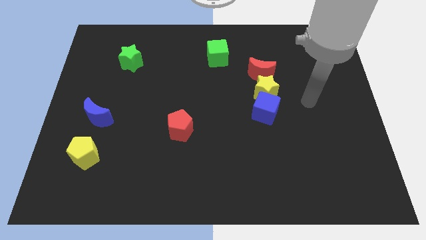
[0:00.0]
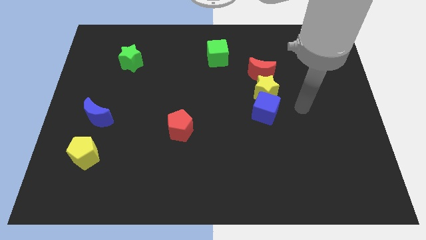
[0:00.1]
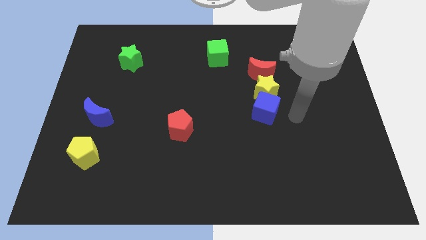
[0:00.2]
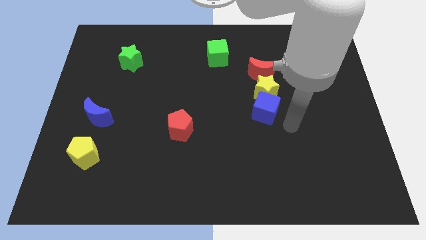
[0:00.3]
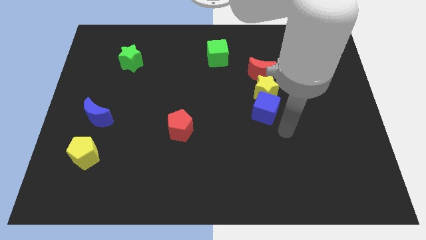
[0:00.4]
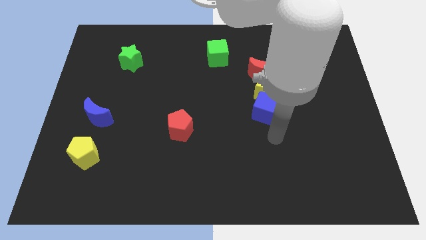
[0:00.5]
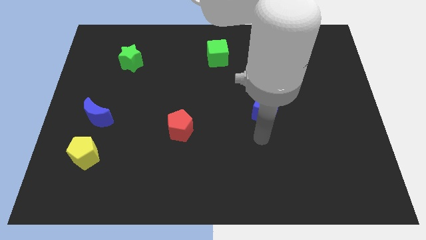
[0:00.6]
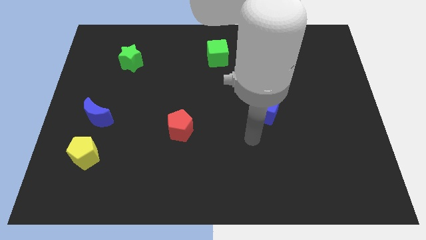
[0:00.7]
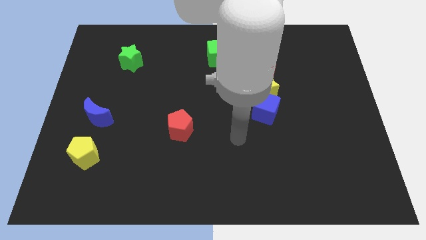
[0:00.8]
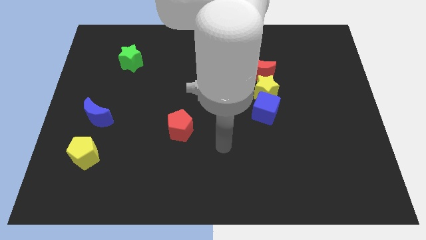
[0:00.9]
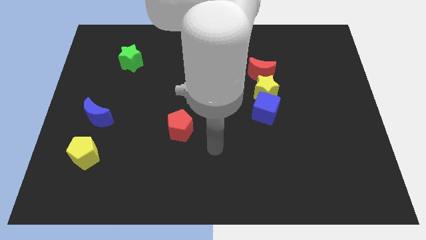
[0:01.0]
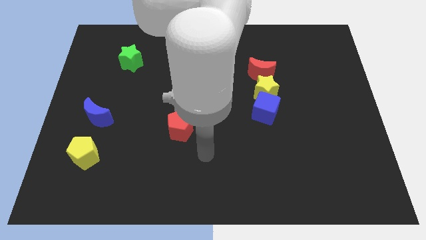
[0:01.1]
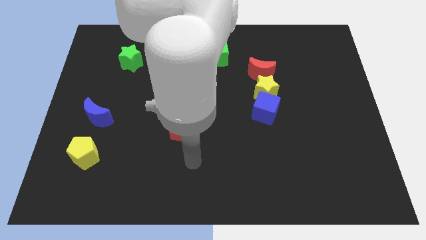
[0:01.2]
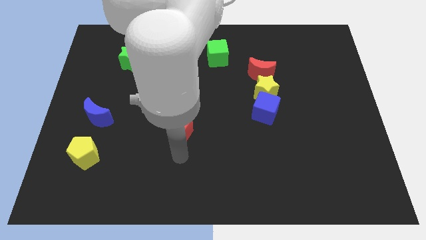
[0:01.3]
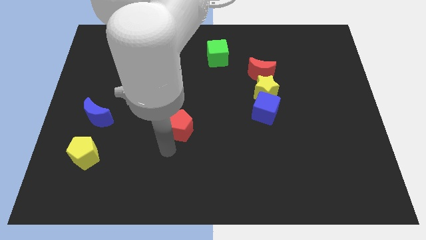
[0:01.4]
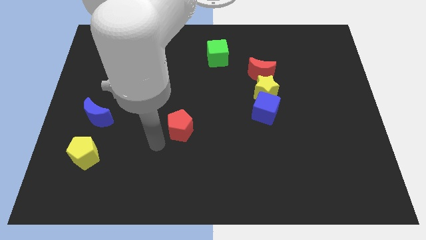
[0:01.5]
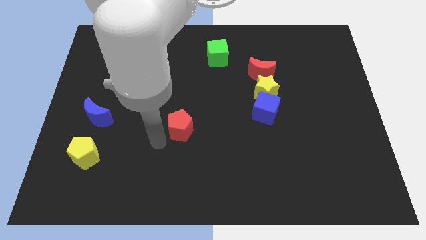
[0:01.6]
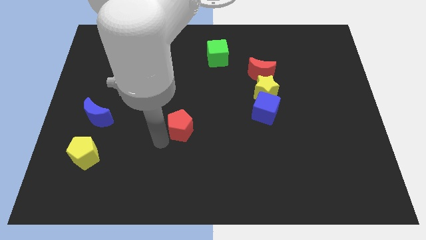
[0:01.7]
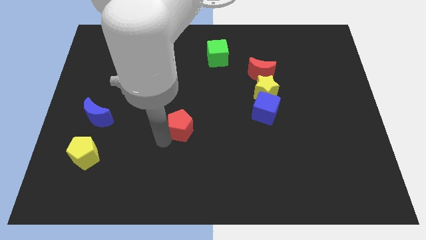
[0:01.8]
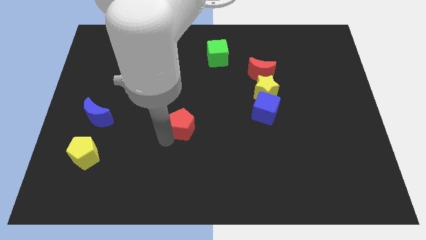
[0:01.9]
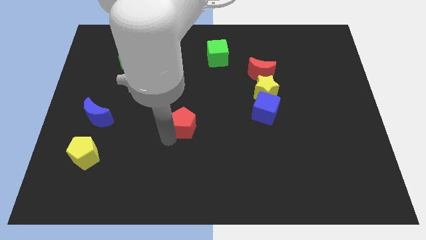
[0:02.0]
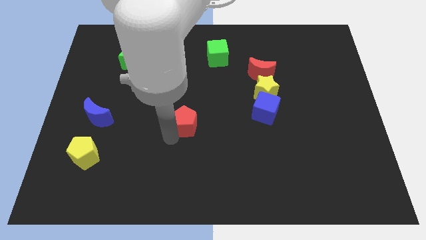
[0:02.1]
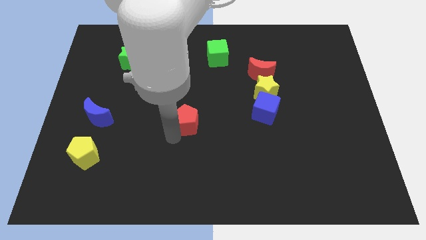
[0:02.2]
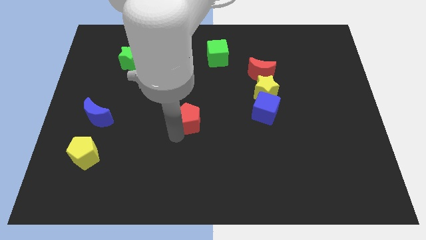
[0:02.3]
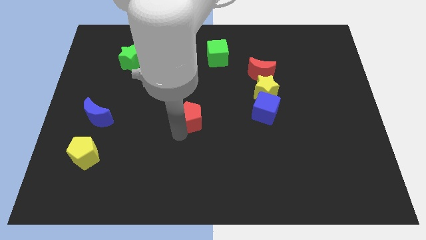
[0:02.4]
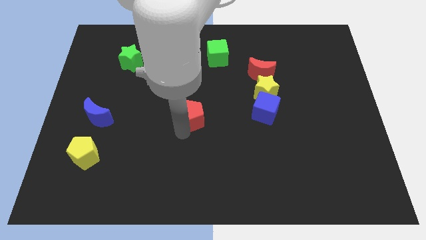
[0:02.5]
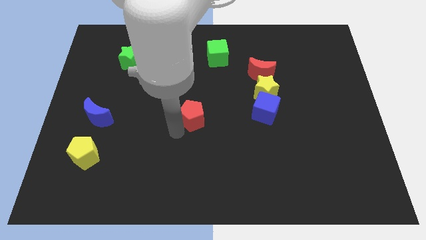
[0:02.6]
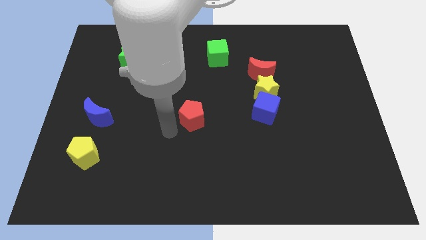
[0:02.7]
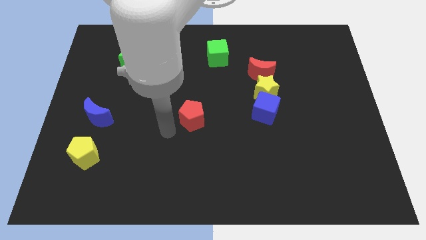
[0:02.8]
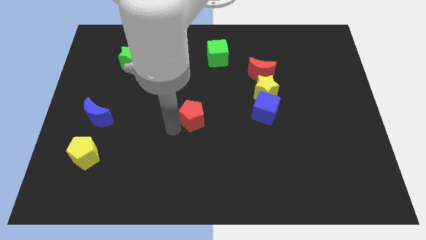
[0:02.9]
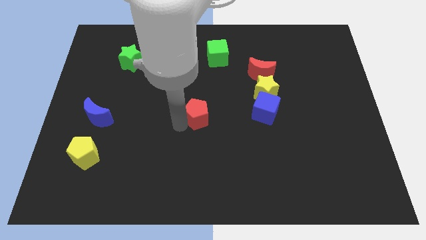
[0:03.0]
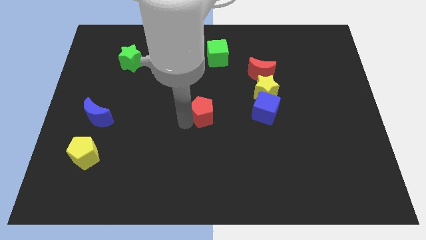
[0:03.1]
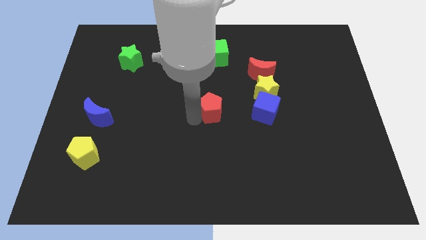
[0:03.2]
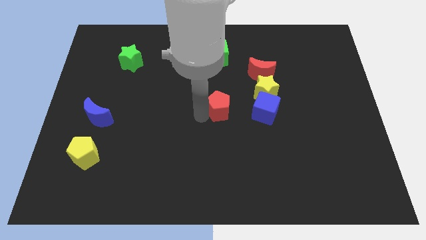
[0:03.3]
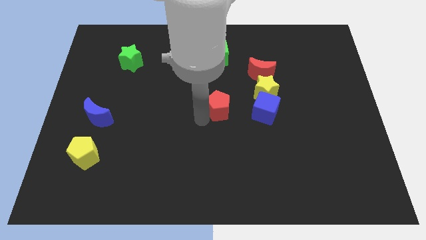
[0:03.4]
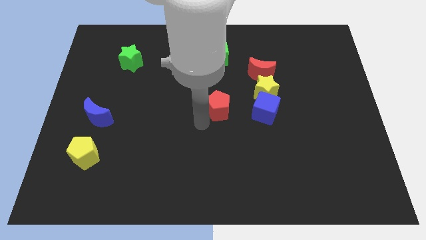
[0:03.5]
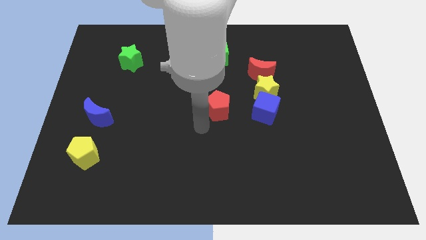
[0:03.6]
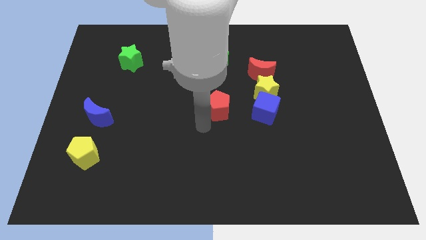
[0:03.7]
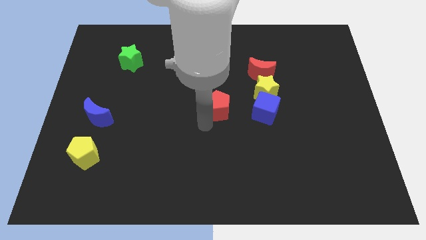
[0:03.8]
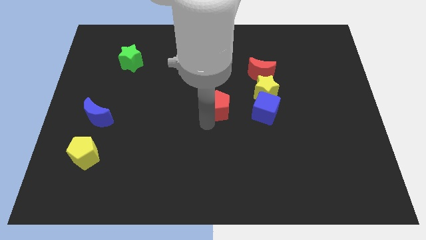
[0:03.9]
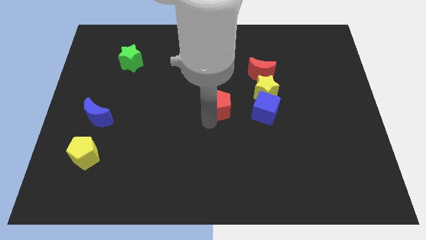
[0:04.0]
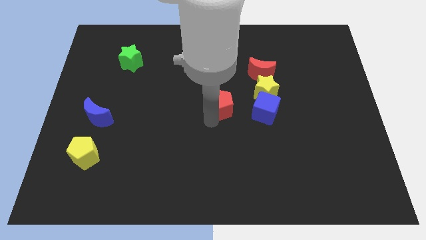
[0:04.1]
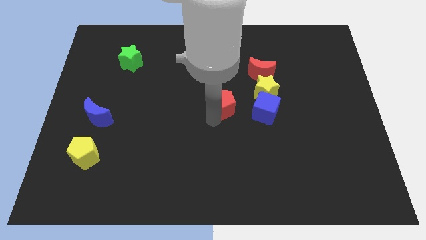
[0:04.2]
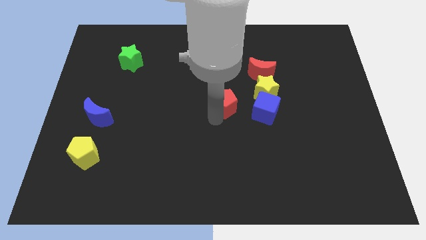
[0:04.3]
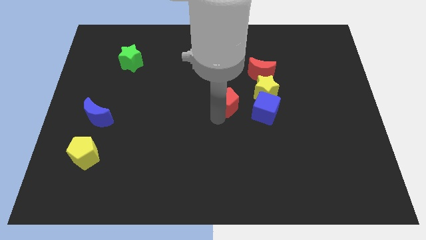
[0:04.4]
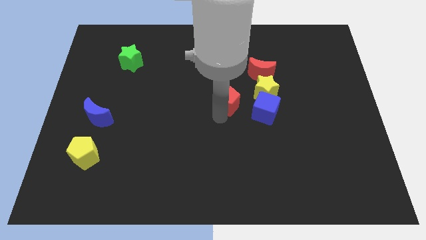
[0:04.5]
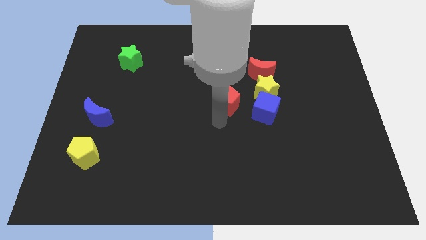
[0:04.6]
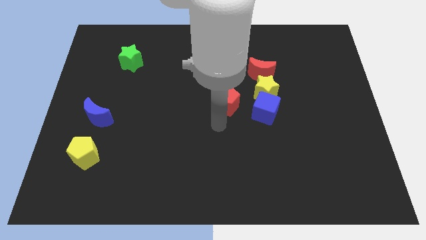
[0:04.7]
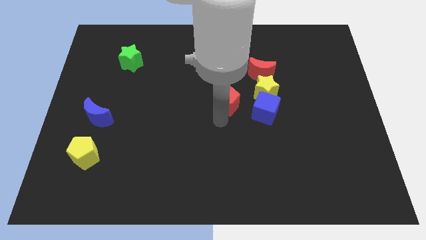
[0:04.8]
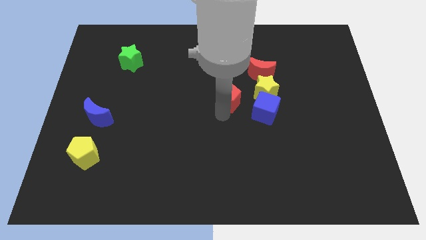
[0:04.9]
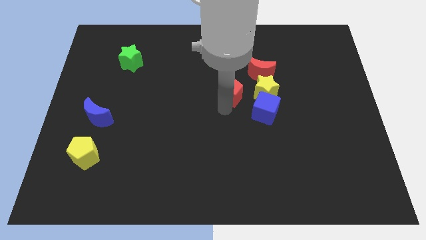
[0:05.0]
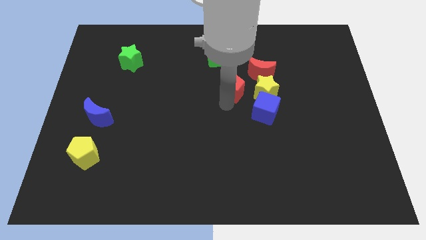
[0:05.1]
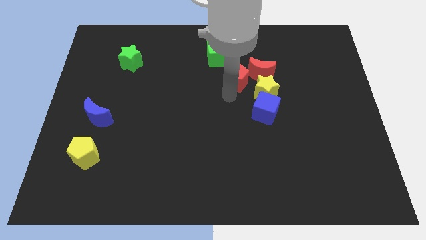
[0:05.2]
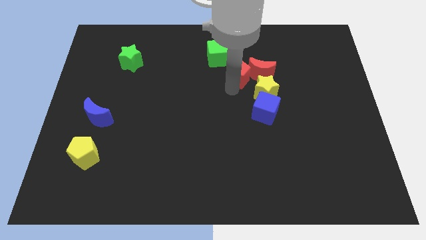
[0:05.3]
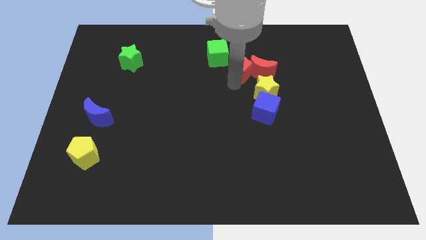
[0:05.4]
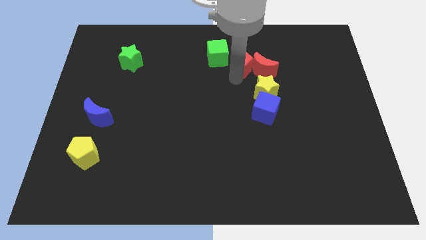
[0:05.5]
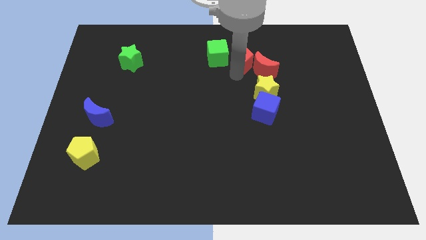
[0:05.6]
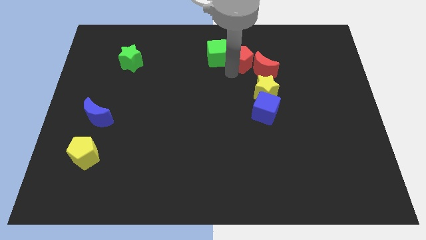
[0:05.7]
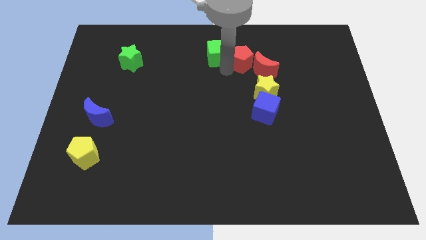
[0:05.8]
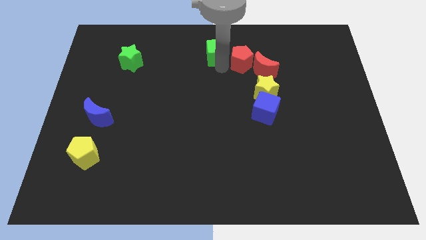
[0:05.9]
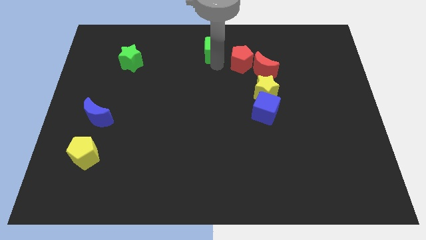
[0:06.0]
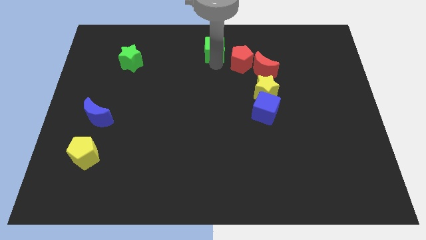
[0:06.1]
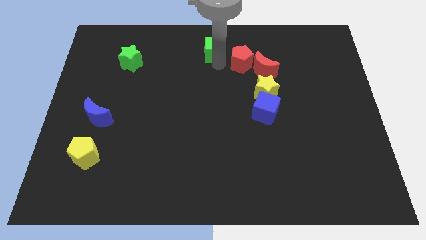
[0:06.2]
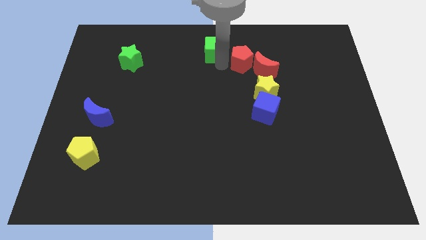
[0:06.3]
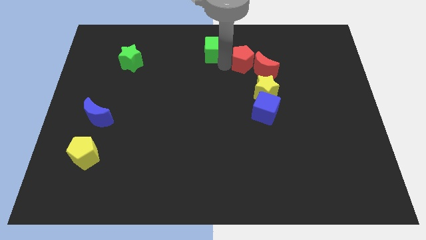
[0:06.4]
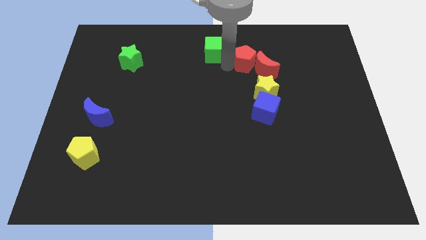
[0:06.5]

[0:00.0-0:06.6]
put the red pentagon above the yellow star
